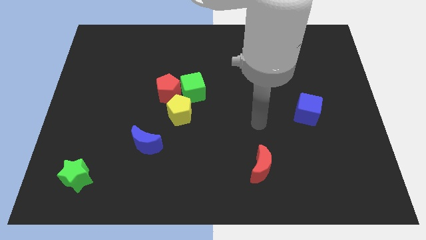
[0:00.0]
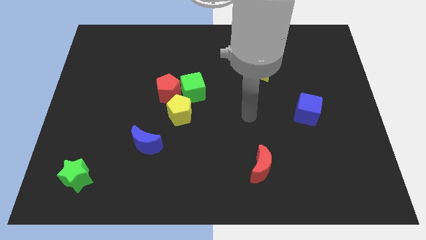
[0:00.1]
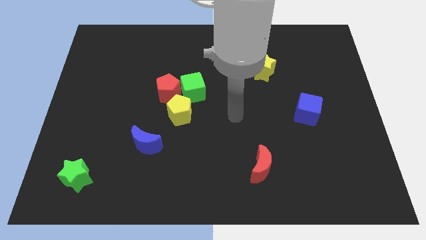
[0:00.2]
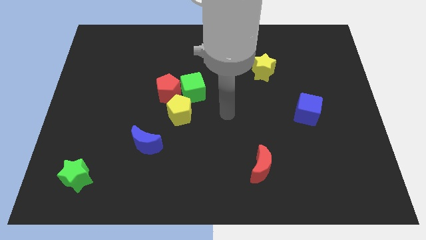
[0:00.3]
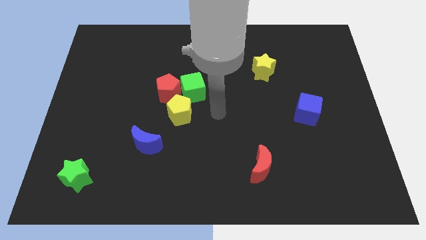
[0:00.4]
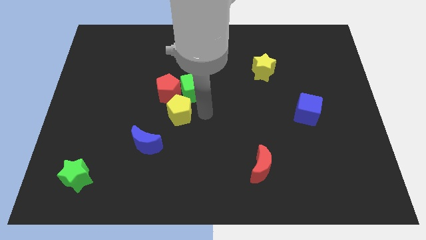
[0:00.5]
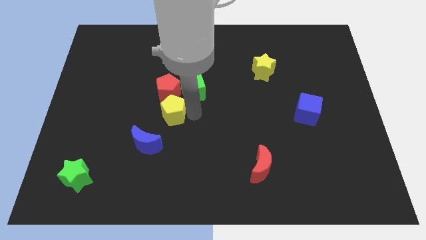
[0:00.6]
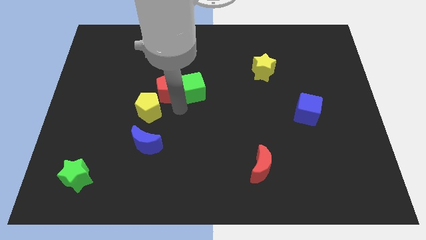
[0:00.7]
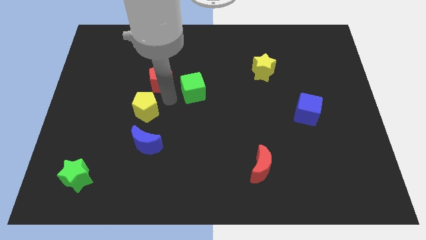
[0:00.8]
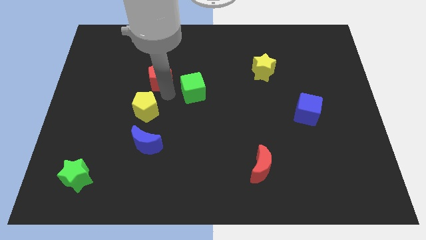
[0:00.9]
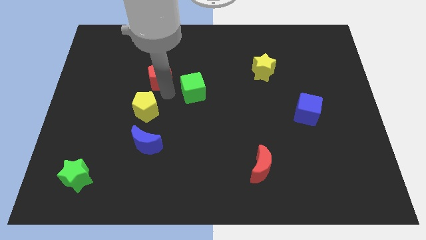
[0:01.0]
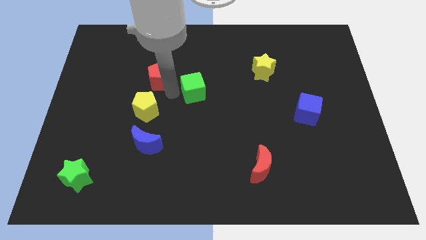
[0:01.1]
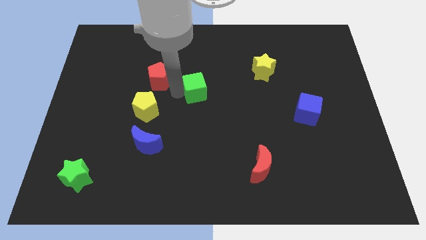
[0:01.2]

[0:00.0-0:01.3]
pull the green cube apart from the red pentagon and yellow pentagon

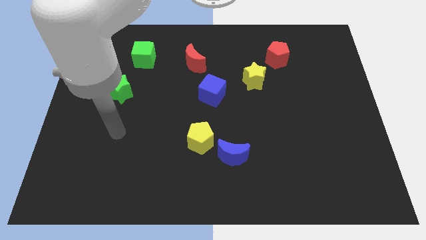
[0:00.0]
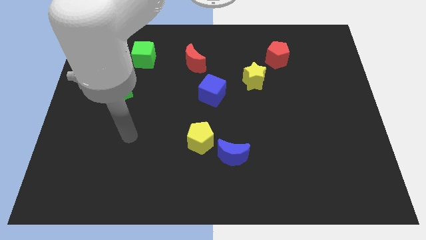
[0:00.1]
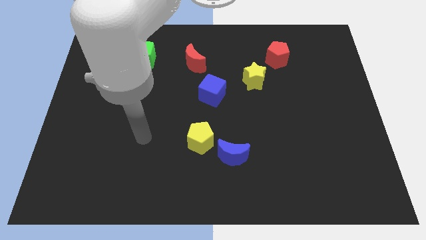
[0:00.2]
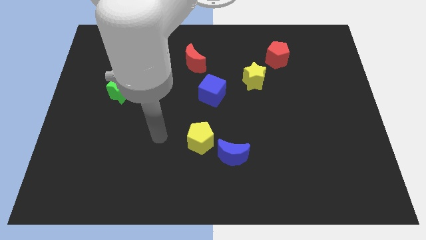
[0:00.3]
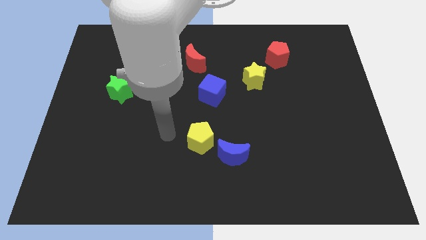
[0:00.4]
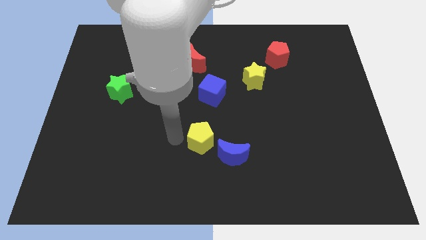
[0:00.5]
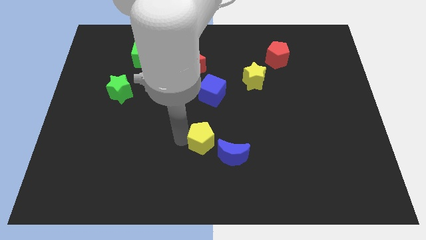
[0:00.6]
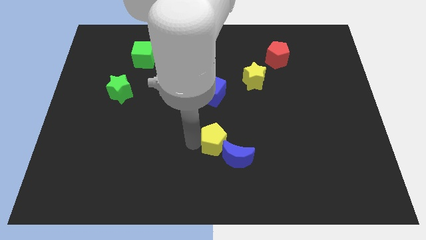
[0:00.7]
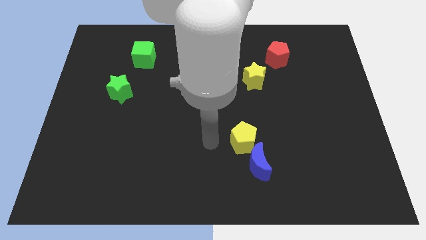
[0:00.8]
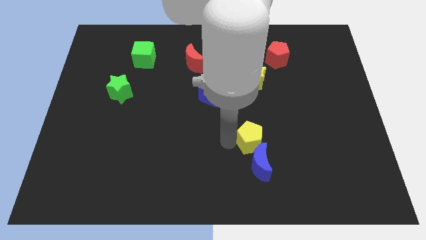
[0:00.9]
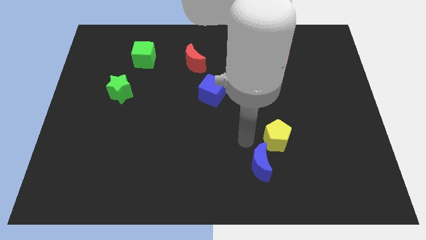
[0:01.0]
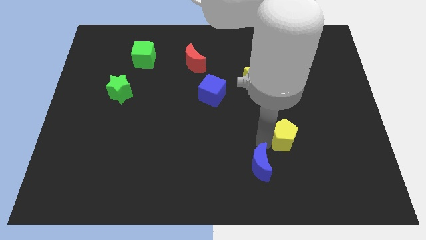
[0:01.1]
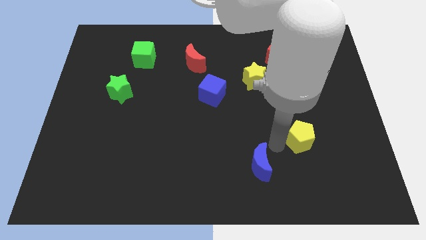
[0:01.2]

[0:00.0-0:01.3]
move the blue moon away from the yellow pentagon

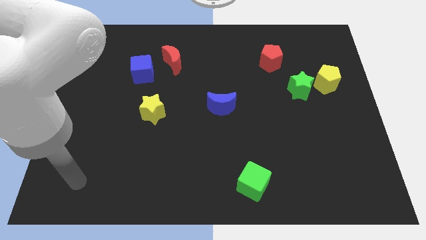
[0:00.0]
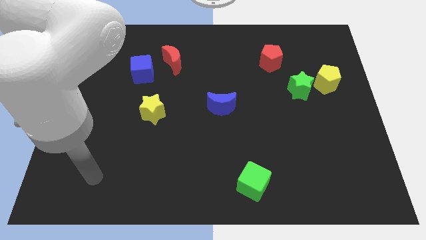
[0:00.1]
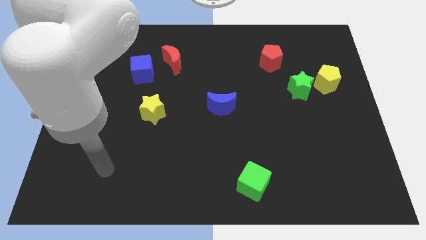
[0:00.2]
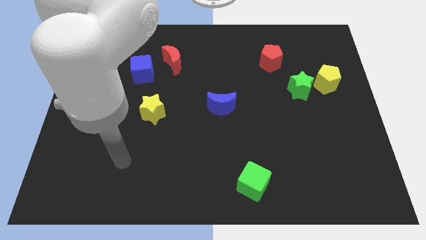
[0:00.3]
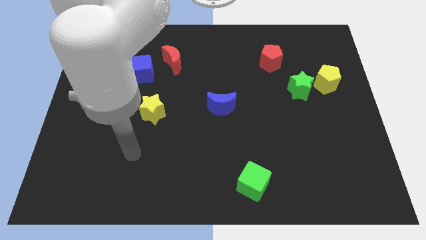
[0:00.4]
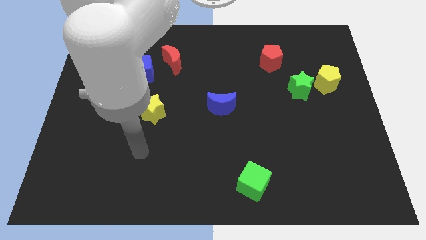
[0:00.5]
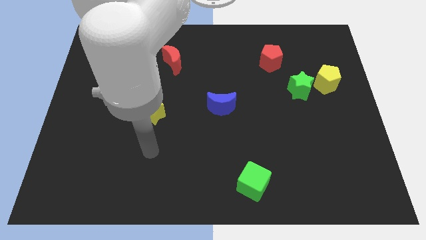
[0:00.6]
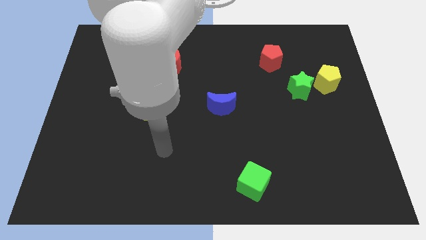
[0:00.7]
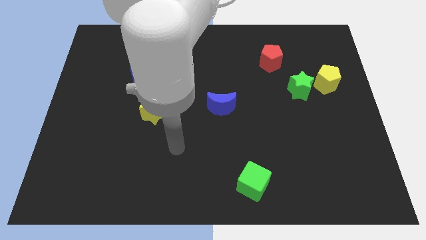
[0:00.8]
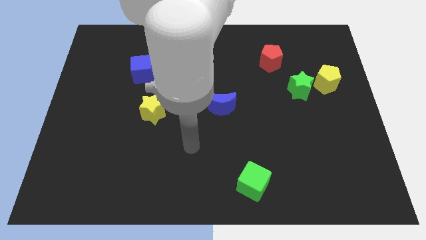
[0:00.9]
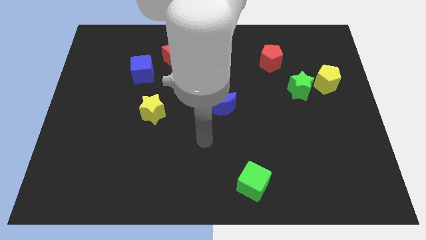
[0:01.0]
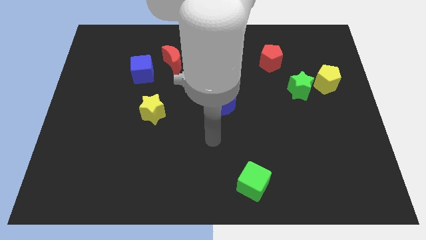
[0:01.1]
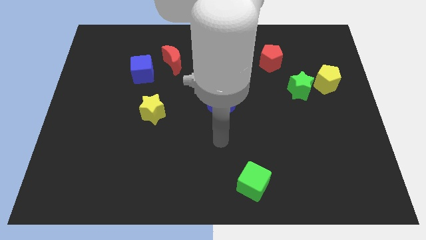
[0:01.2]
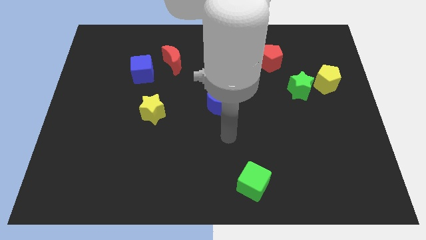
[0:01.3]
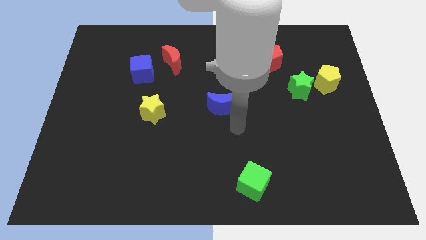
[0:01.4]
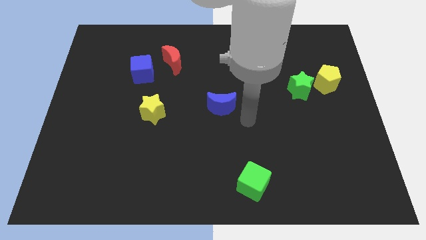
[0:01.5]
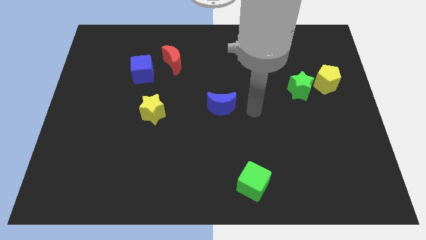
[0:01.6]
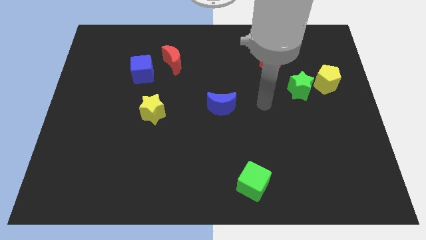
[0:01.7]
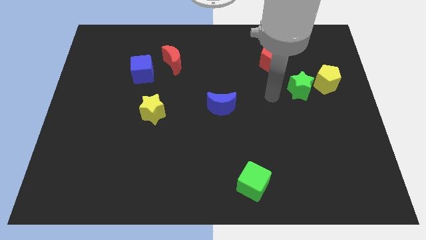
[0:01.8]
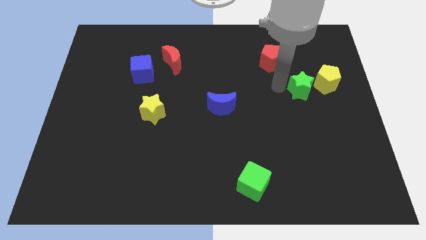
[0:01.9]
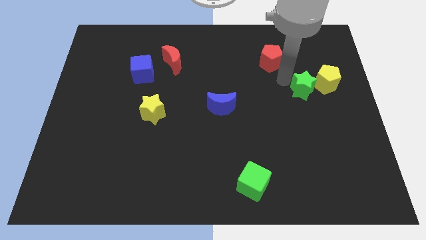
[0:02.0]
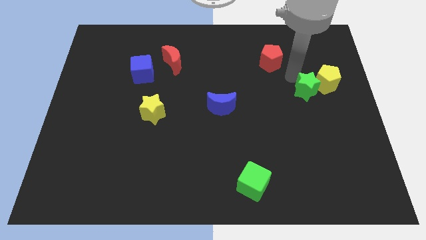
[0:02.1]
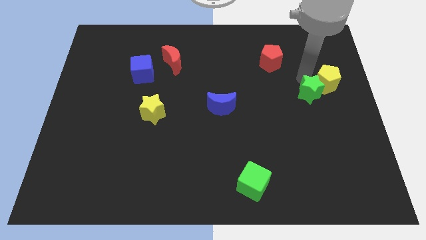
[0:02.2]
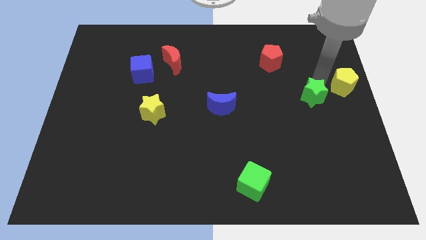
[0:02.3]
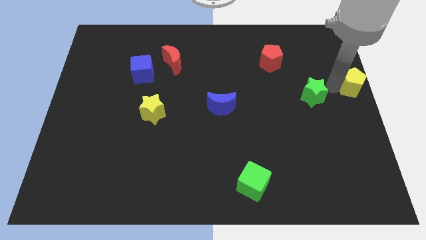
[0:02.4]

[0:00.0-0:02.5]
separate the green star from the yellow pentagon
